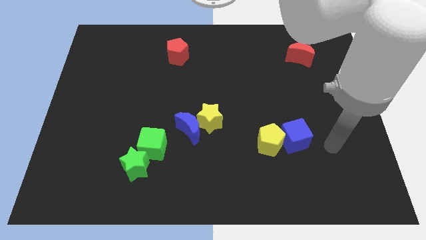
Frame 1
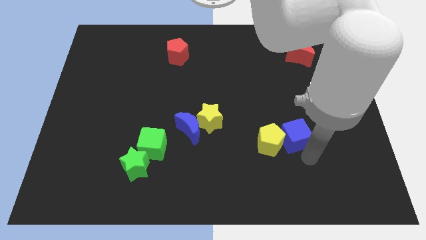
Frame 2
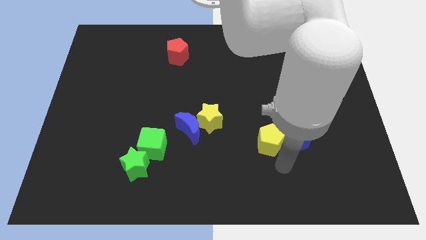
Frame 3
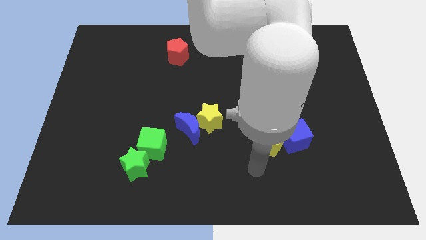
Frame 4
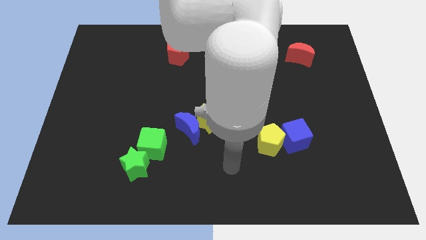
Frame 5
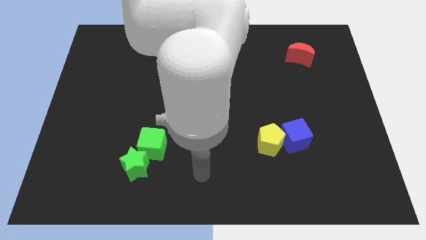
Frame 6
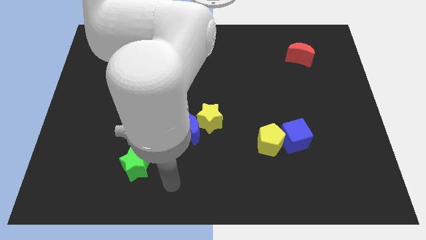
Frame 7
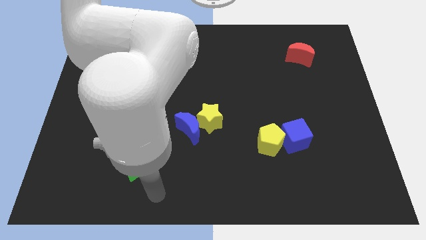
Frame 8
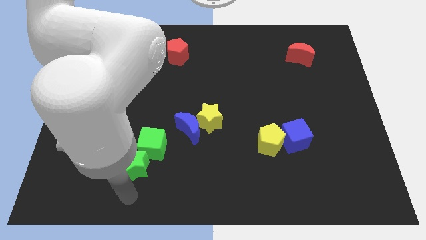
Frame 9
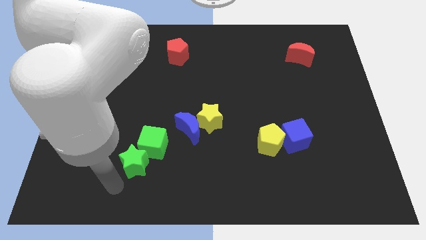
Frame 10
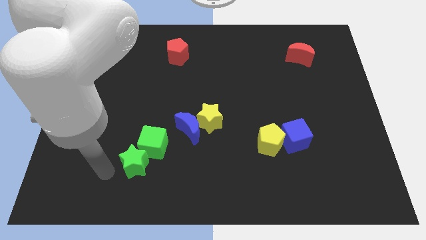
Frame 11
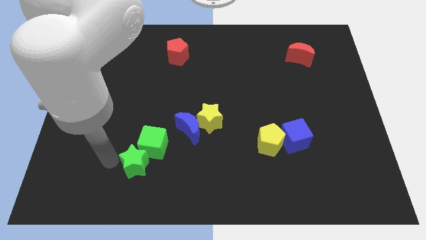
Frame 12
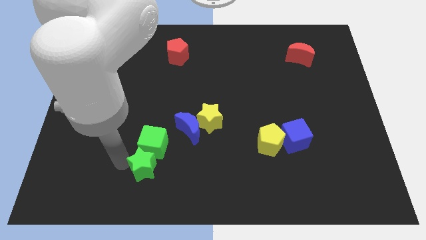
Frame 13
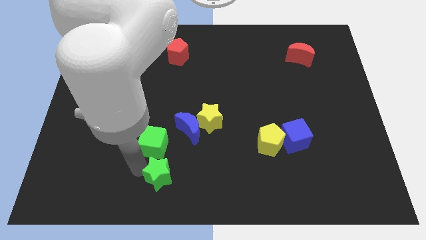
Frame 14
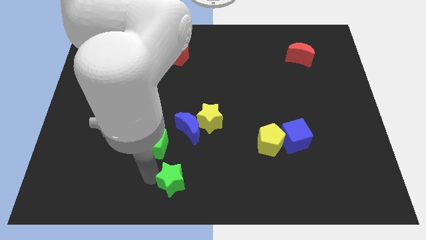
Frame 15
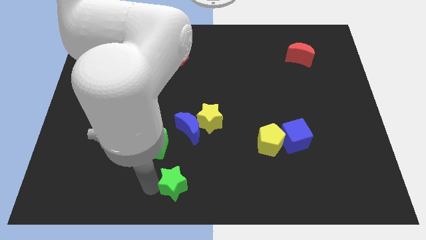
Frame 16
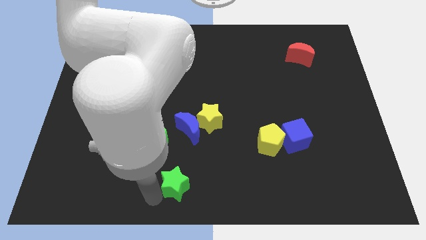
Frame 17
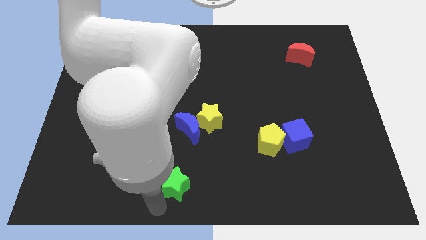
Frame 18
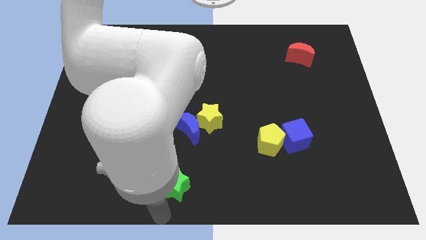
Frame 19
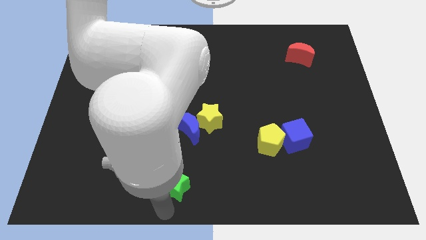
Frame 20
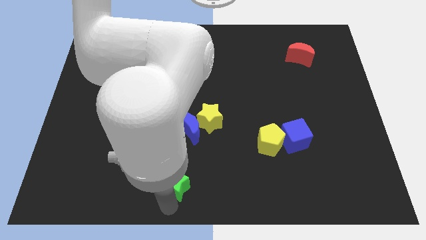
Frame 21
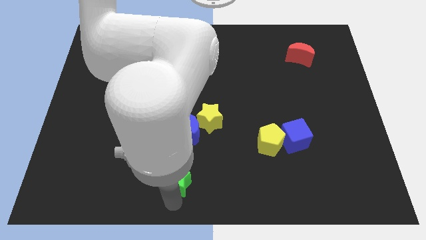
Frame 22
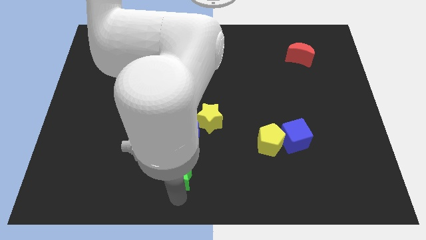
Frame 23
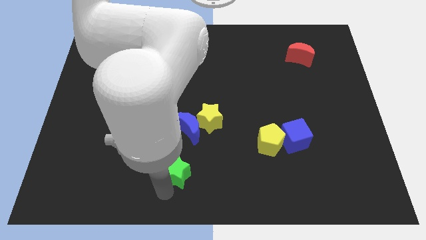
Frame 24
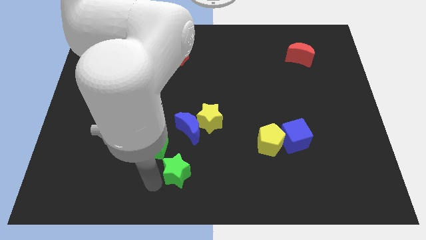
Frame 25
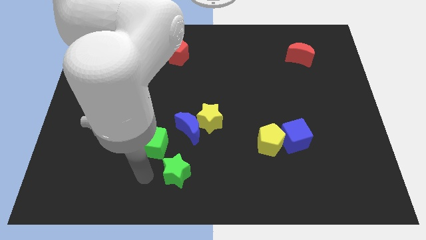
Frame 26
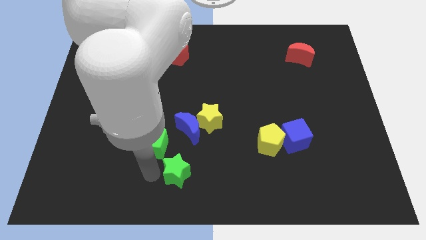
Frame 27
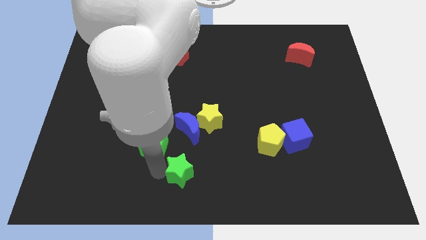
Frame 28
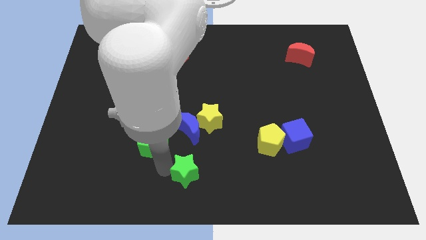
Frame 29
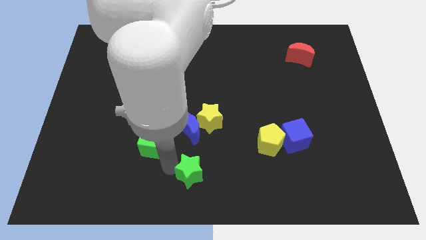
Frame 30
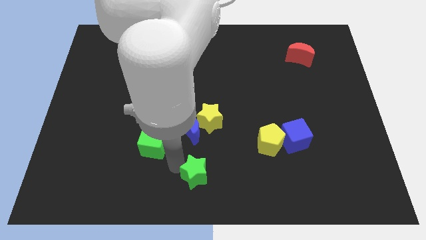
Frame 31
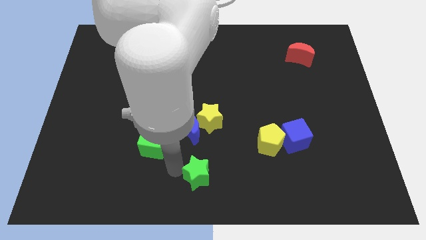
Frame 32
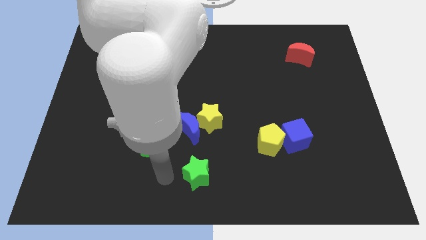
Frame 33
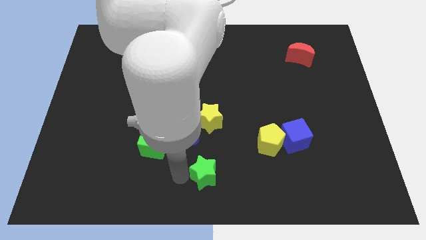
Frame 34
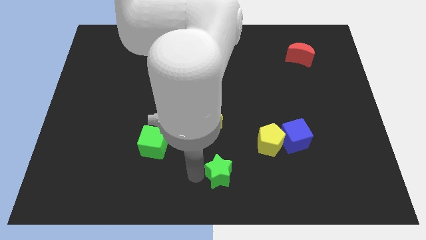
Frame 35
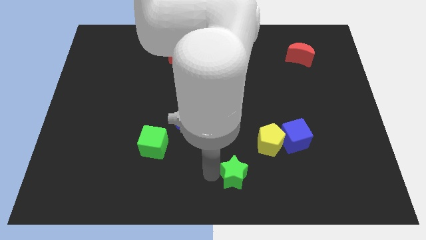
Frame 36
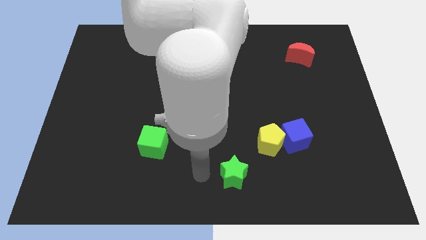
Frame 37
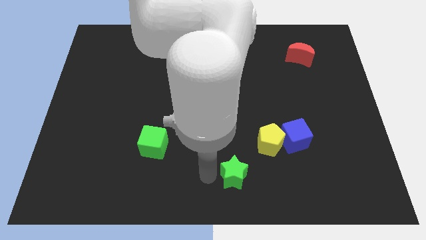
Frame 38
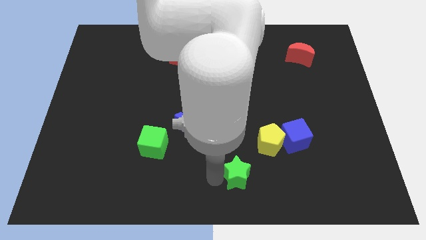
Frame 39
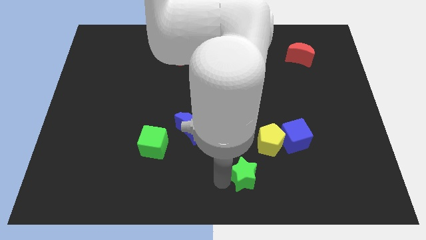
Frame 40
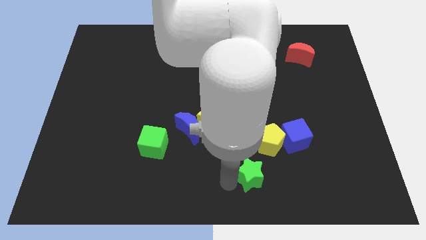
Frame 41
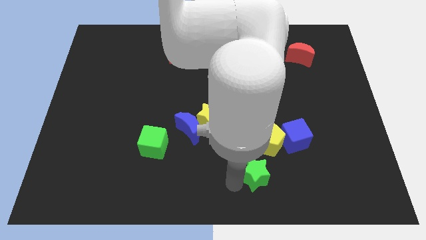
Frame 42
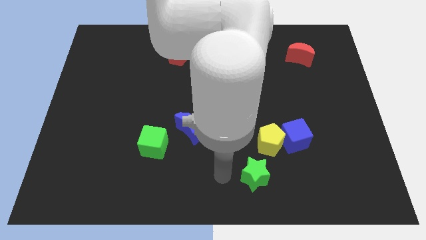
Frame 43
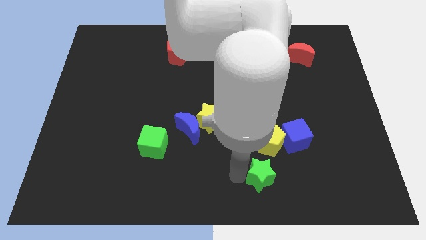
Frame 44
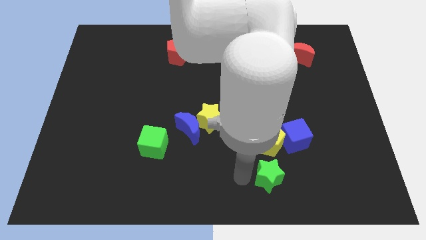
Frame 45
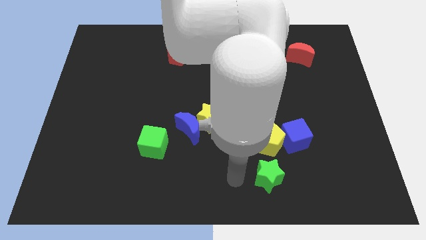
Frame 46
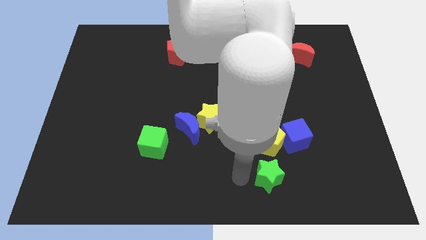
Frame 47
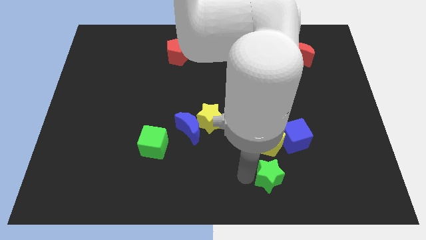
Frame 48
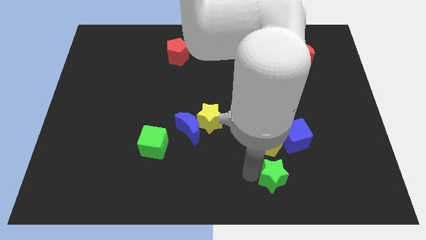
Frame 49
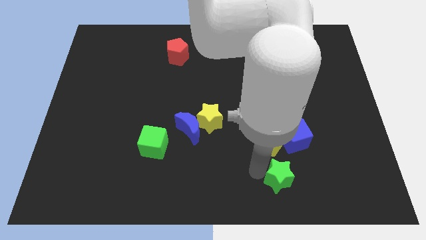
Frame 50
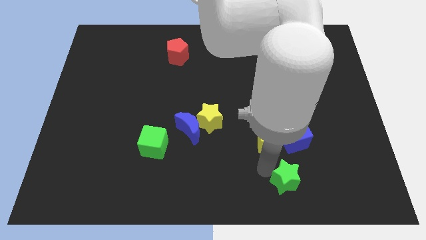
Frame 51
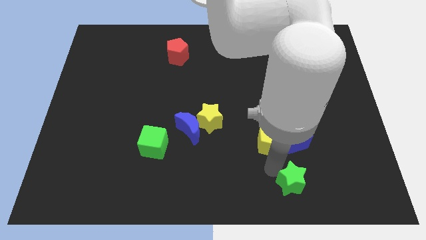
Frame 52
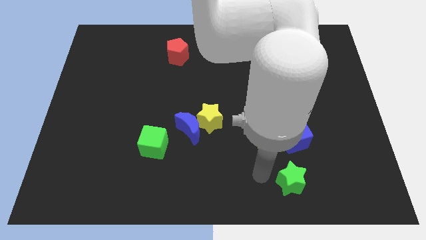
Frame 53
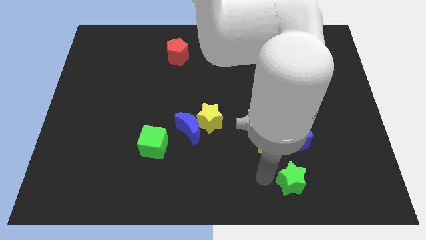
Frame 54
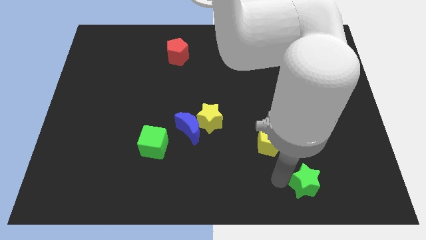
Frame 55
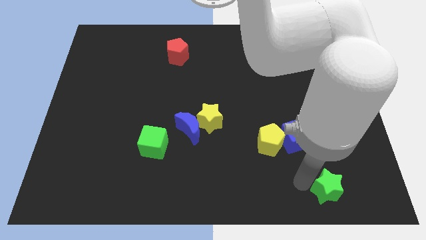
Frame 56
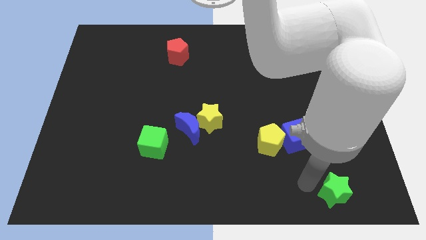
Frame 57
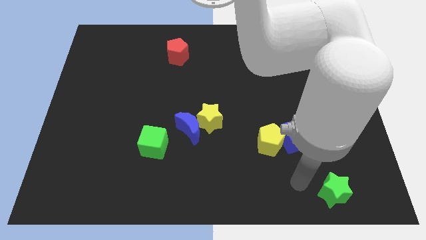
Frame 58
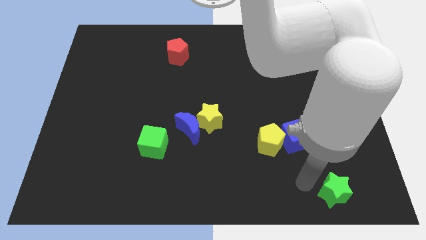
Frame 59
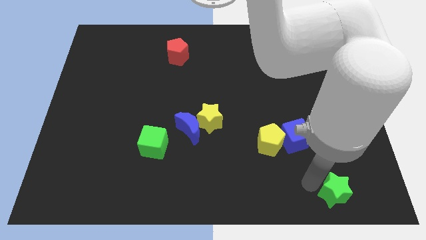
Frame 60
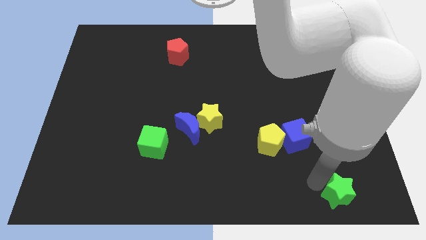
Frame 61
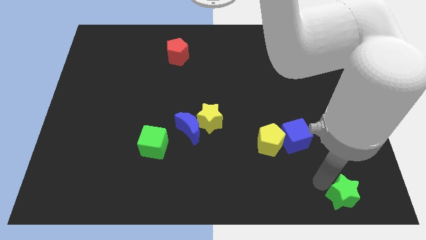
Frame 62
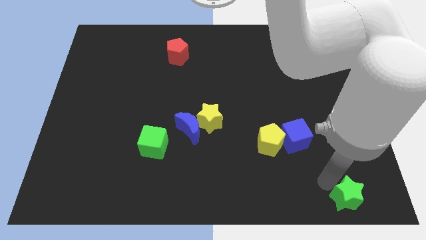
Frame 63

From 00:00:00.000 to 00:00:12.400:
move the green star to the bottom right
